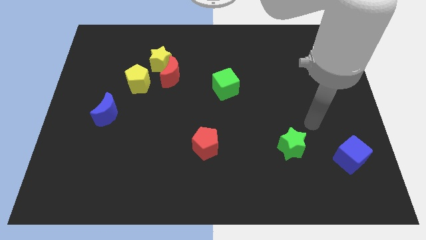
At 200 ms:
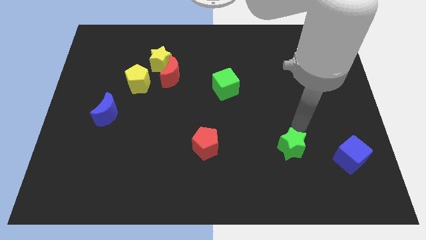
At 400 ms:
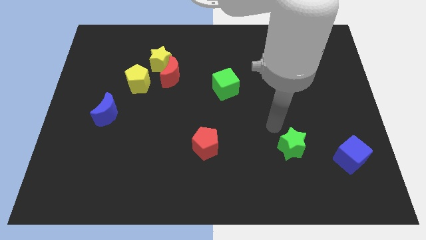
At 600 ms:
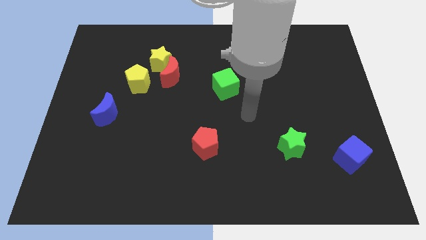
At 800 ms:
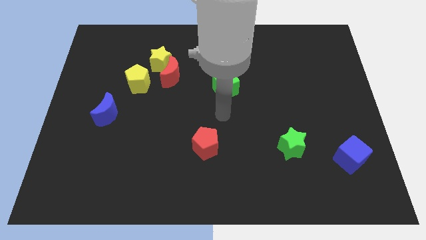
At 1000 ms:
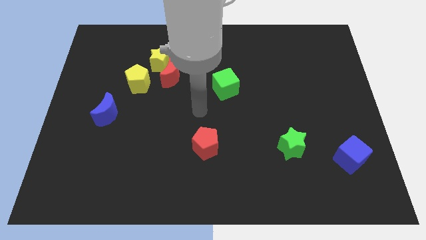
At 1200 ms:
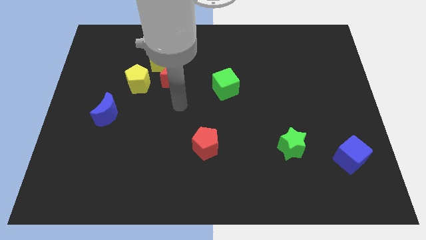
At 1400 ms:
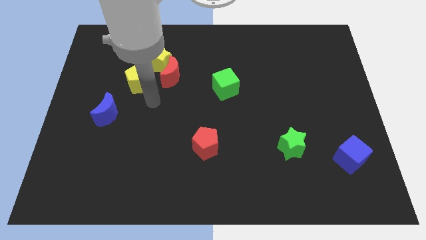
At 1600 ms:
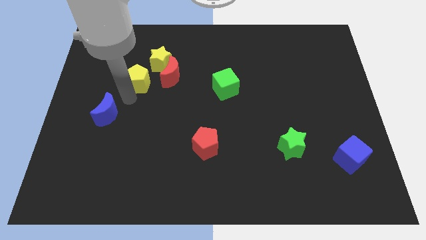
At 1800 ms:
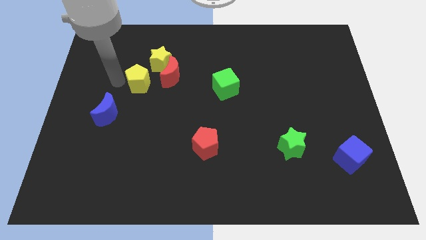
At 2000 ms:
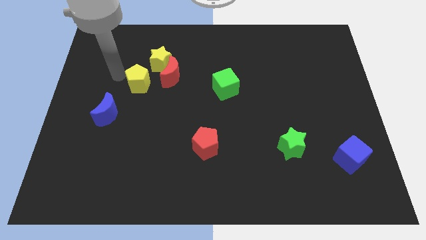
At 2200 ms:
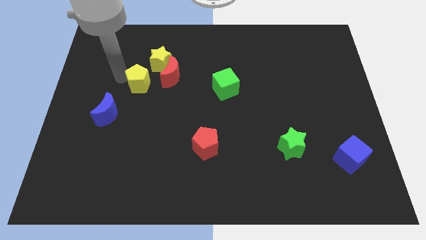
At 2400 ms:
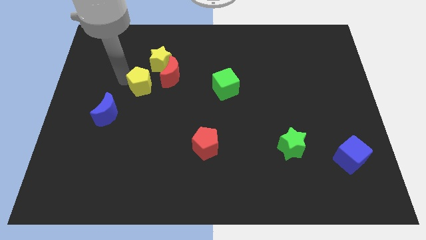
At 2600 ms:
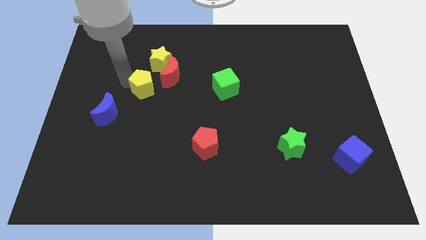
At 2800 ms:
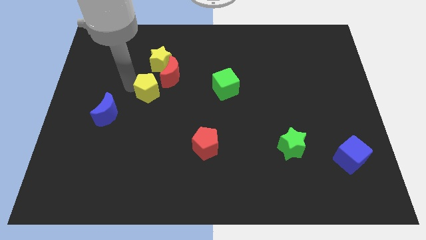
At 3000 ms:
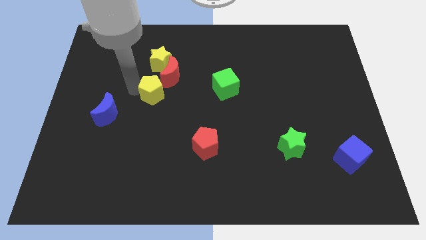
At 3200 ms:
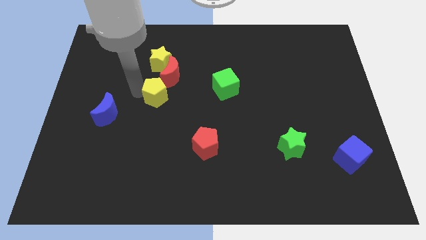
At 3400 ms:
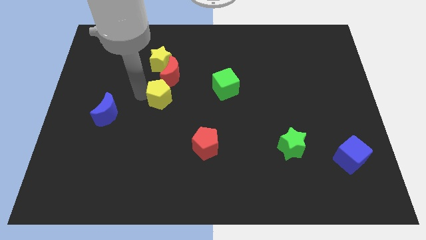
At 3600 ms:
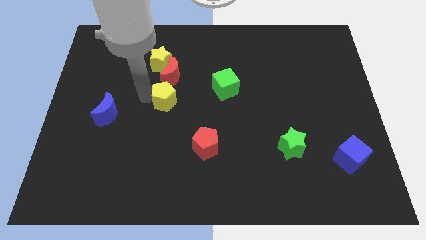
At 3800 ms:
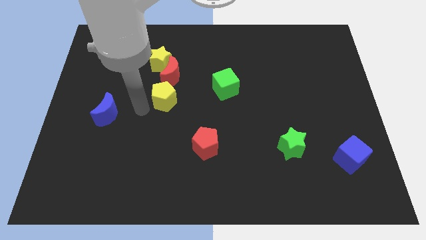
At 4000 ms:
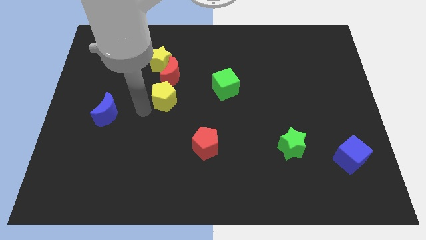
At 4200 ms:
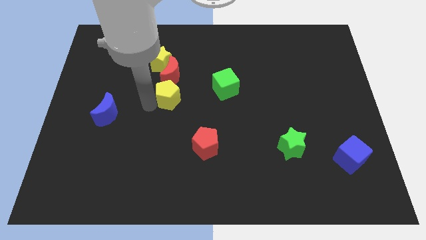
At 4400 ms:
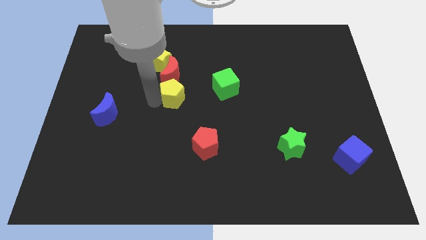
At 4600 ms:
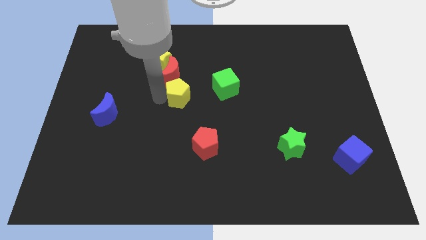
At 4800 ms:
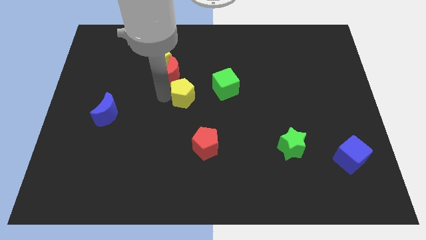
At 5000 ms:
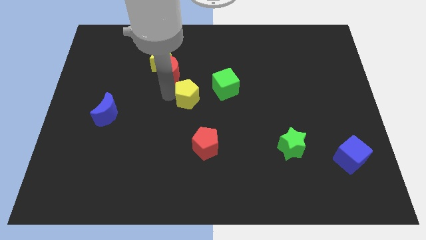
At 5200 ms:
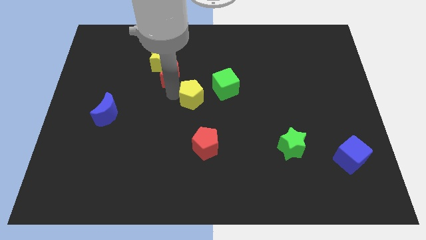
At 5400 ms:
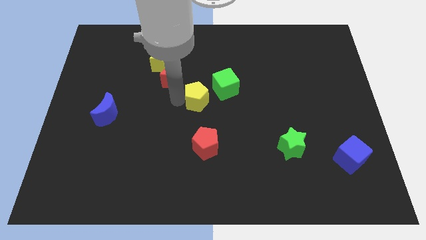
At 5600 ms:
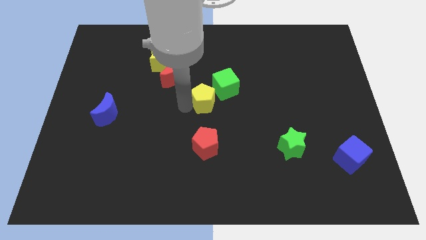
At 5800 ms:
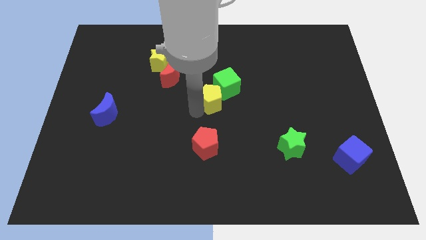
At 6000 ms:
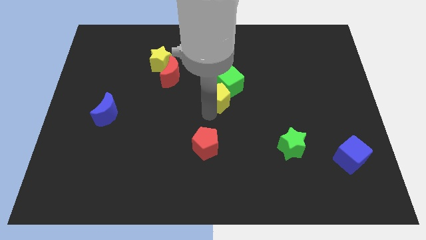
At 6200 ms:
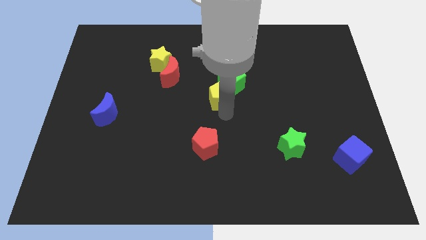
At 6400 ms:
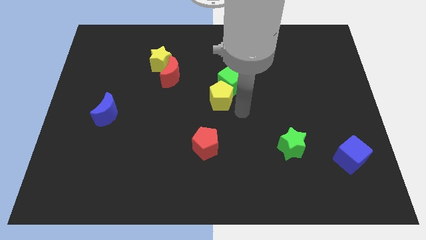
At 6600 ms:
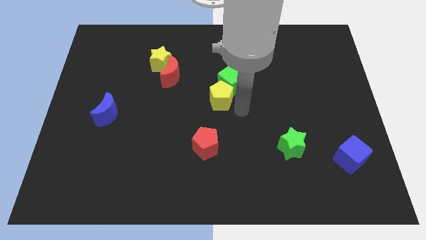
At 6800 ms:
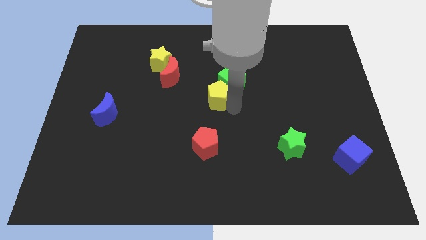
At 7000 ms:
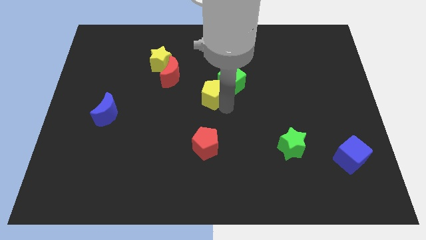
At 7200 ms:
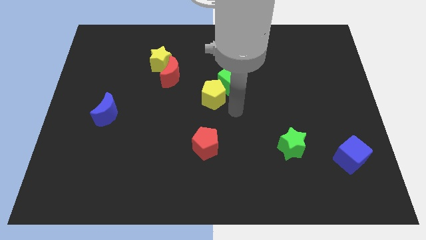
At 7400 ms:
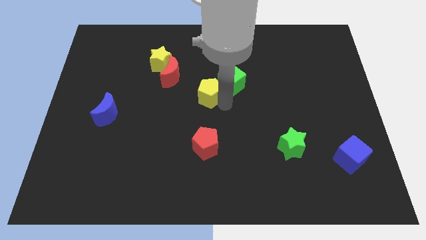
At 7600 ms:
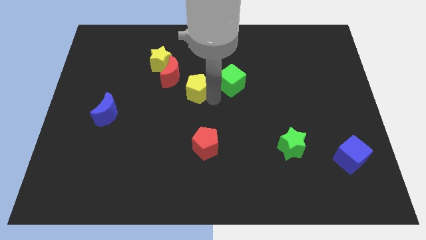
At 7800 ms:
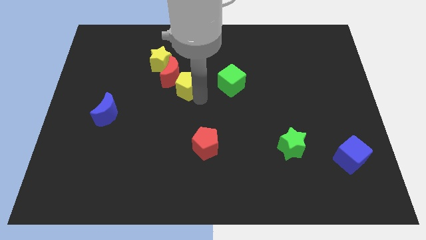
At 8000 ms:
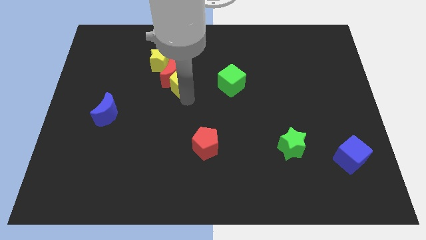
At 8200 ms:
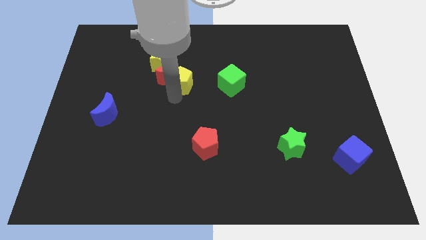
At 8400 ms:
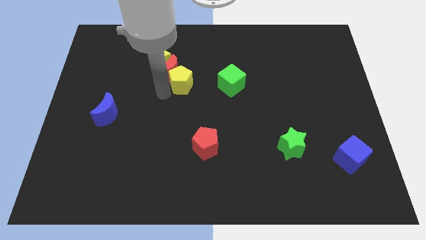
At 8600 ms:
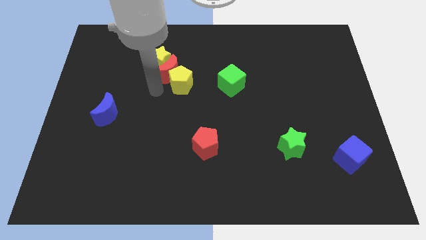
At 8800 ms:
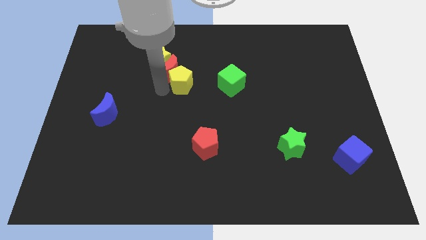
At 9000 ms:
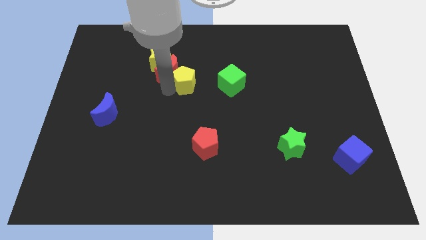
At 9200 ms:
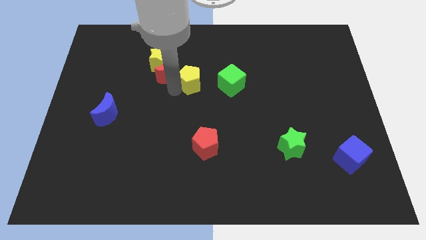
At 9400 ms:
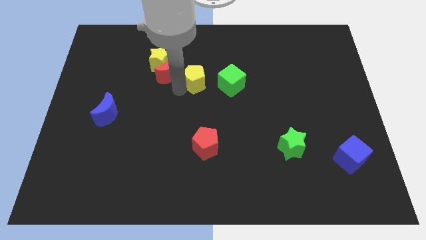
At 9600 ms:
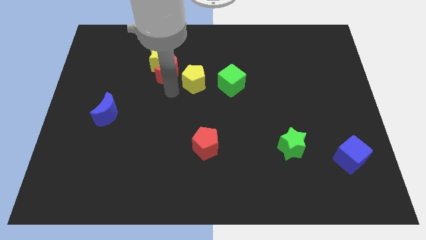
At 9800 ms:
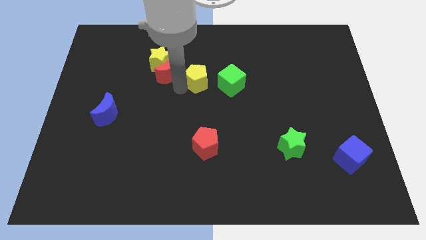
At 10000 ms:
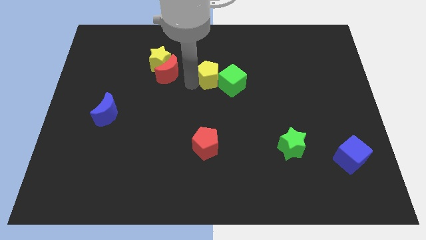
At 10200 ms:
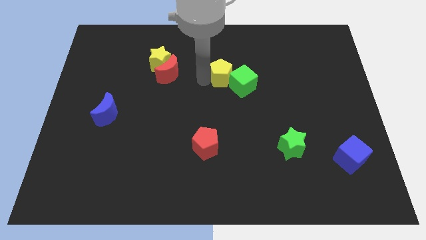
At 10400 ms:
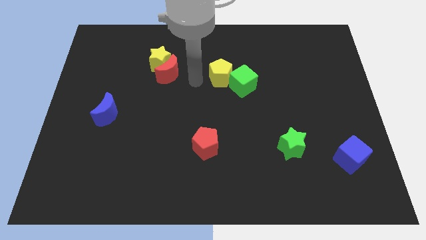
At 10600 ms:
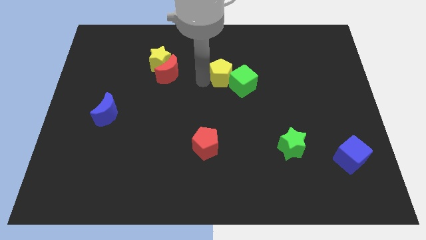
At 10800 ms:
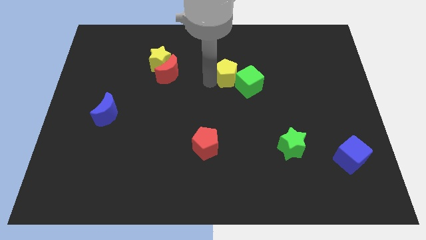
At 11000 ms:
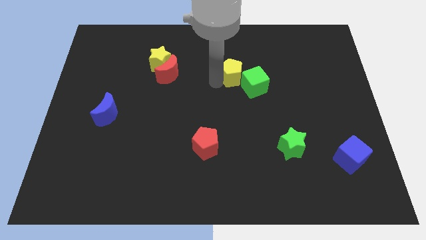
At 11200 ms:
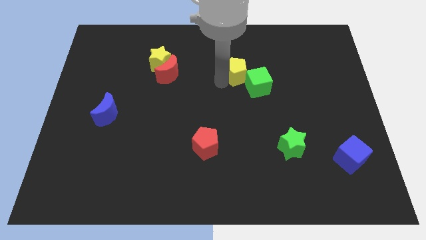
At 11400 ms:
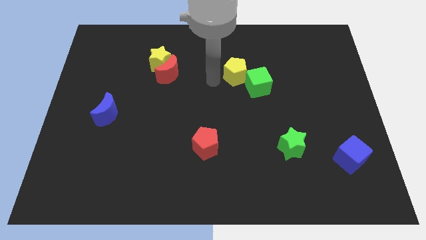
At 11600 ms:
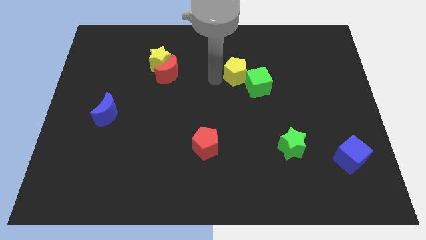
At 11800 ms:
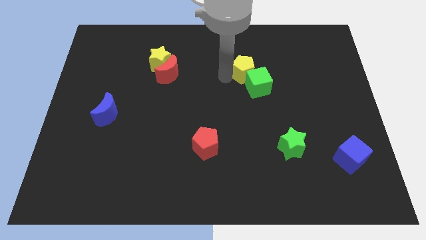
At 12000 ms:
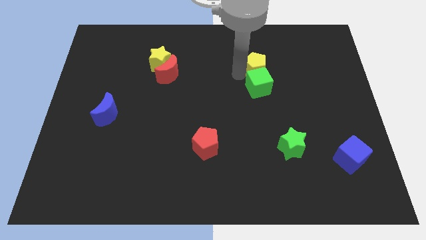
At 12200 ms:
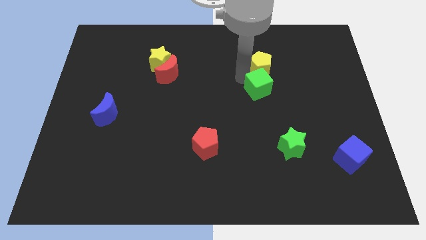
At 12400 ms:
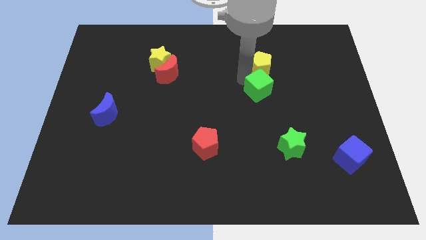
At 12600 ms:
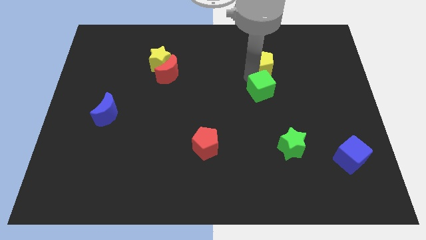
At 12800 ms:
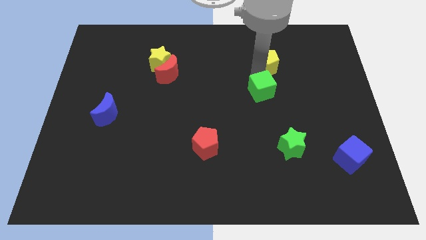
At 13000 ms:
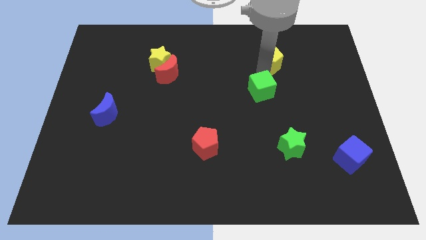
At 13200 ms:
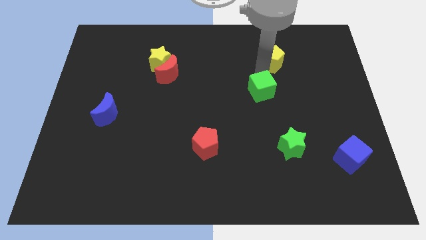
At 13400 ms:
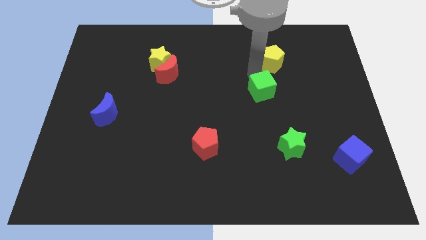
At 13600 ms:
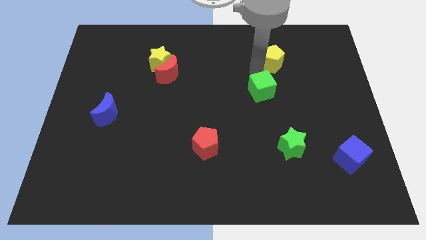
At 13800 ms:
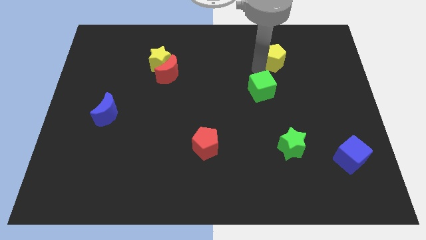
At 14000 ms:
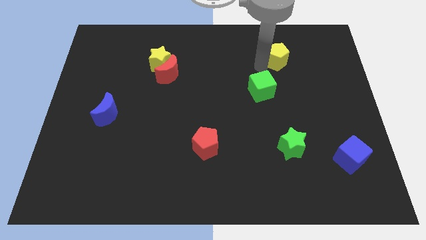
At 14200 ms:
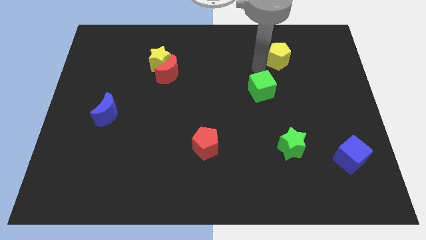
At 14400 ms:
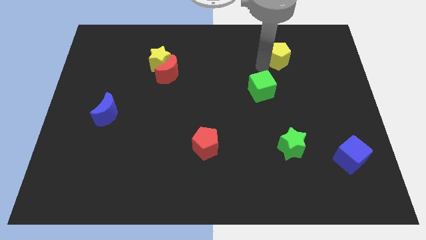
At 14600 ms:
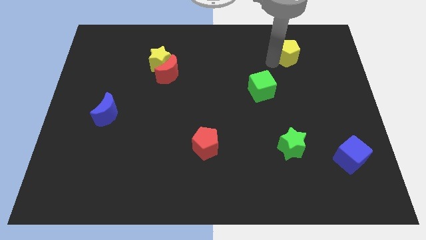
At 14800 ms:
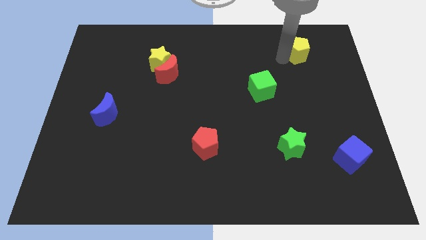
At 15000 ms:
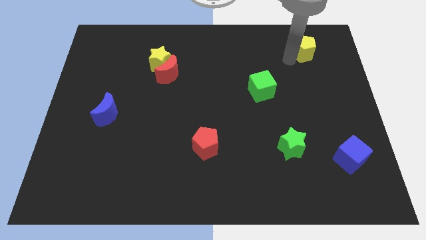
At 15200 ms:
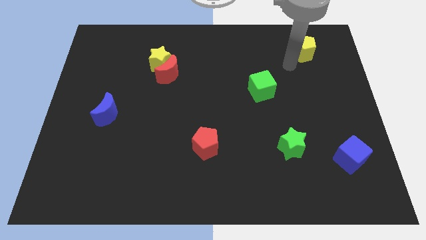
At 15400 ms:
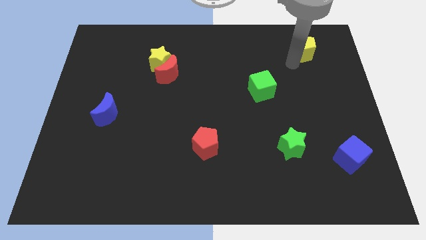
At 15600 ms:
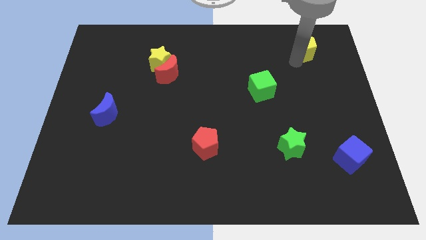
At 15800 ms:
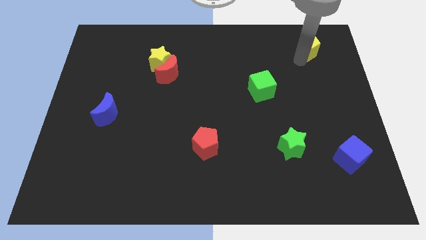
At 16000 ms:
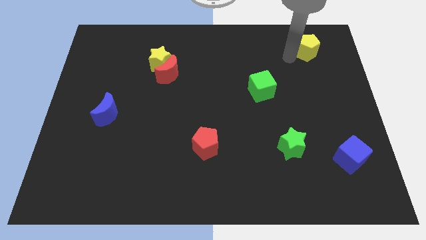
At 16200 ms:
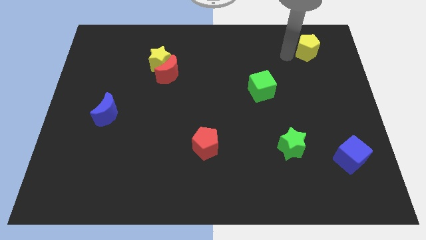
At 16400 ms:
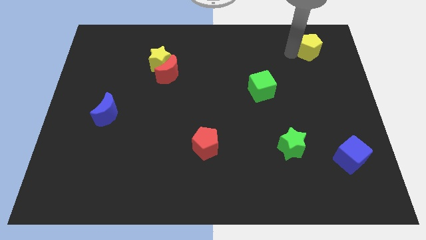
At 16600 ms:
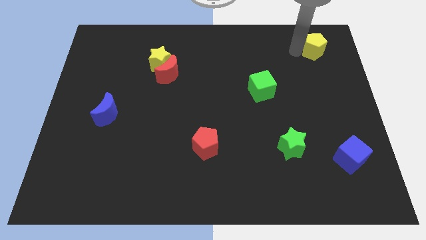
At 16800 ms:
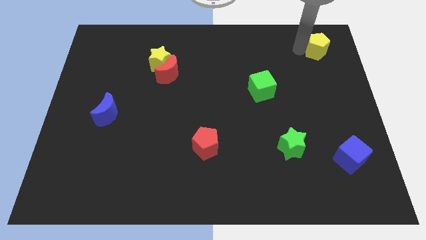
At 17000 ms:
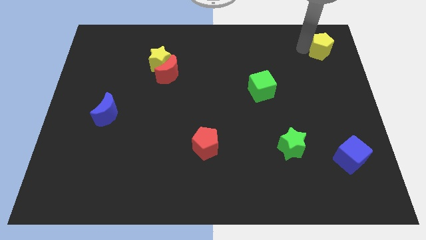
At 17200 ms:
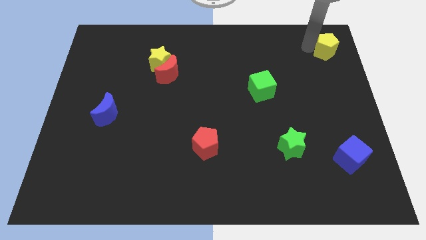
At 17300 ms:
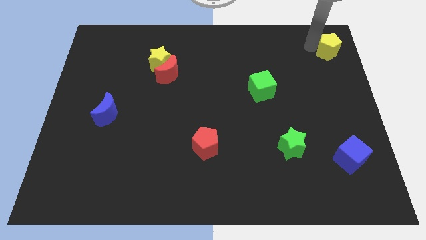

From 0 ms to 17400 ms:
put the yellow pentagon to the upper right corner
